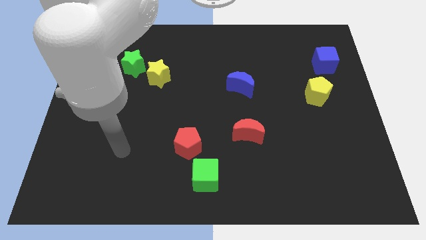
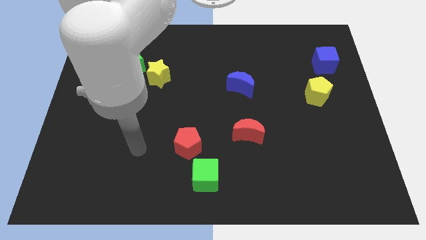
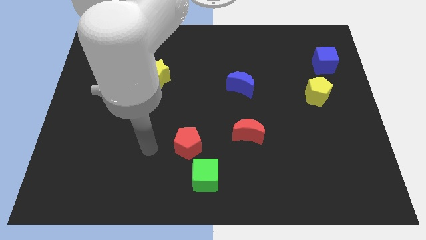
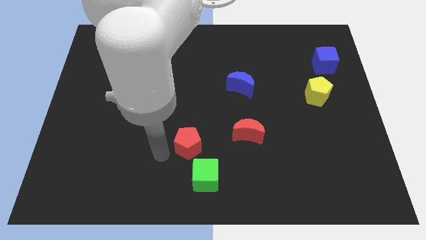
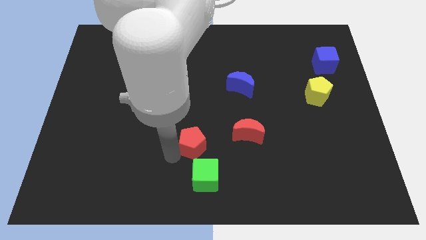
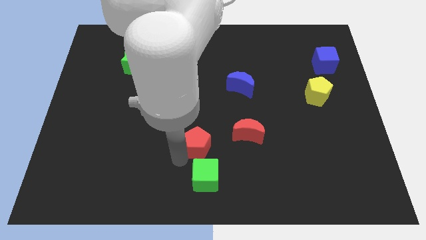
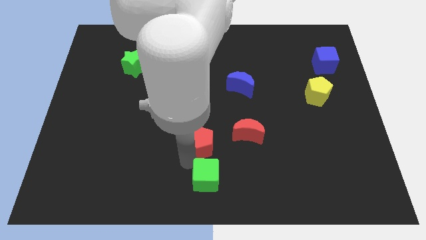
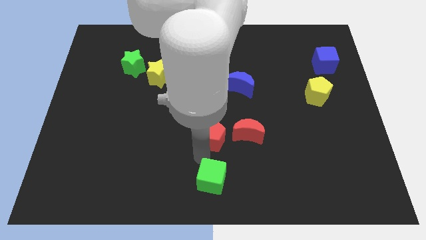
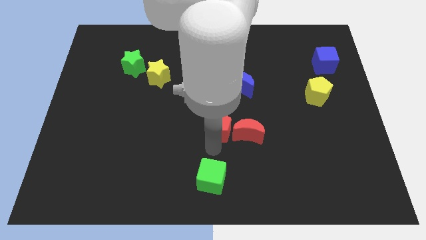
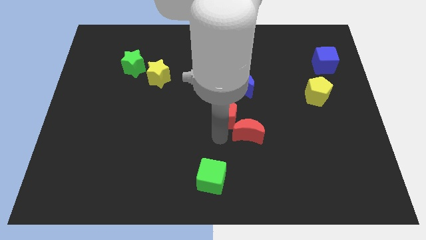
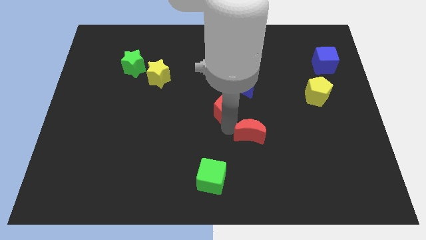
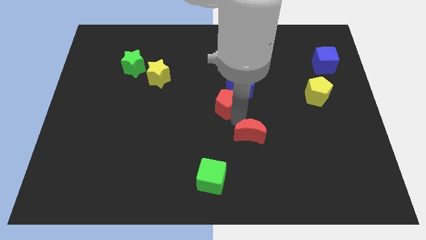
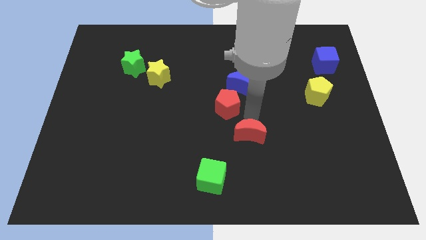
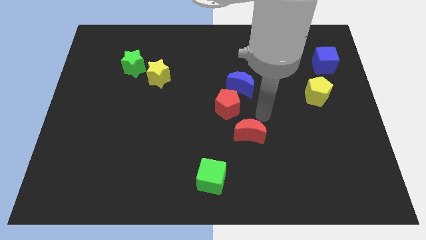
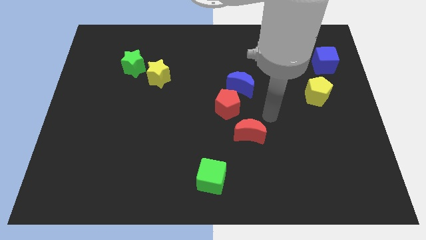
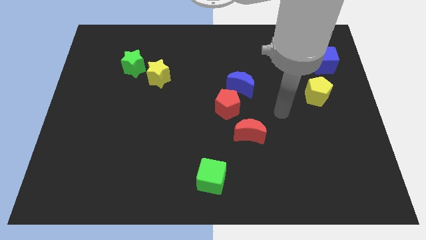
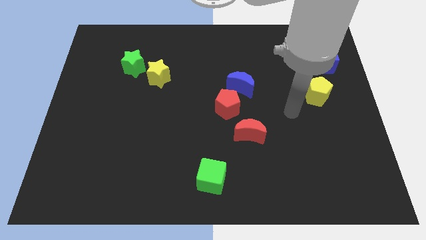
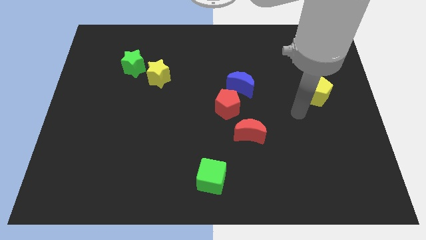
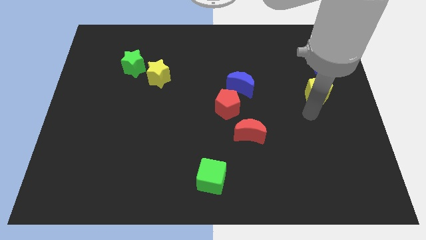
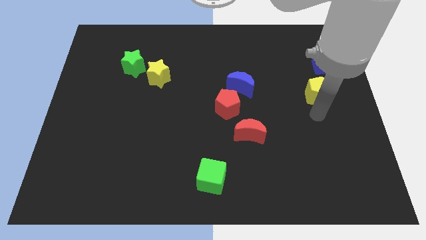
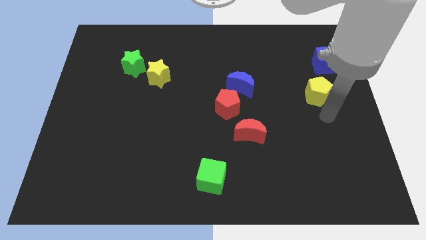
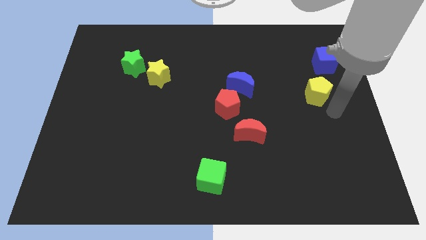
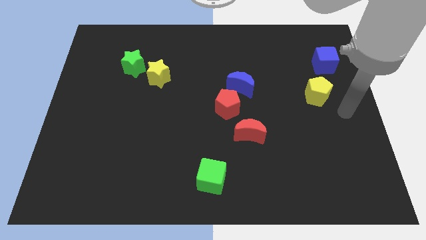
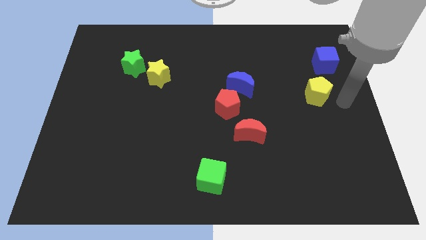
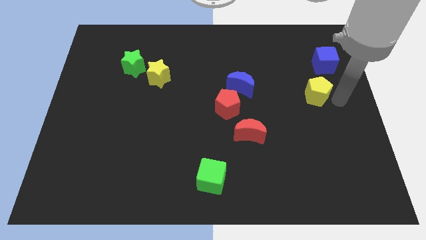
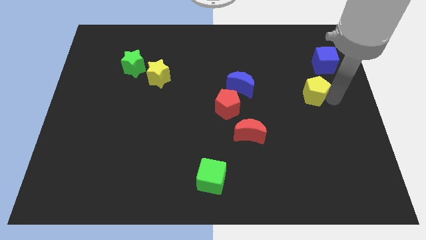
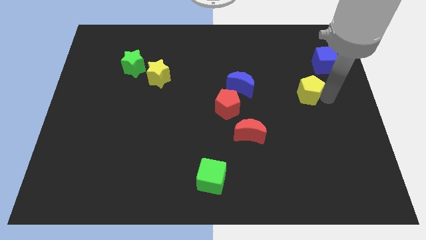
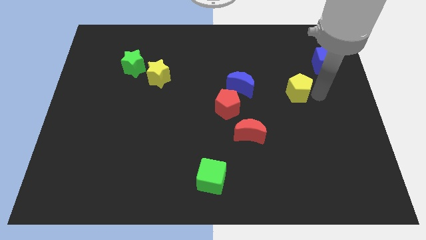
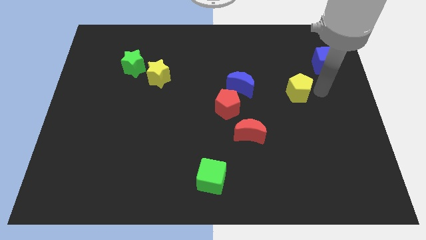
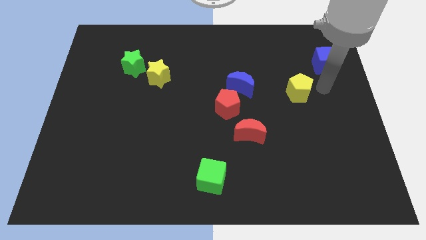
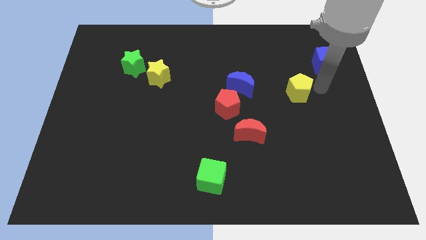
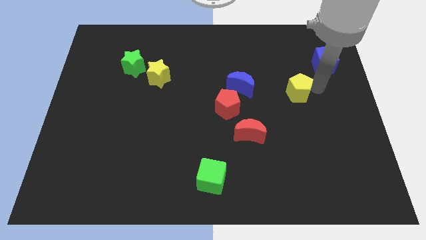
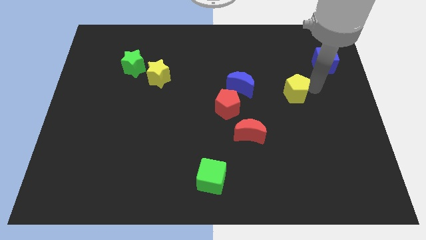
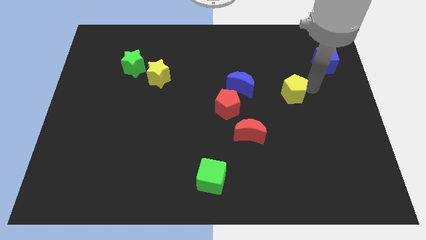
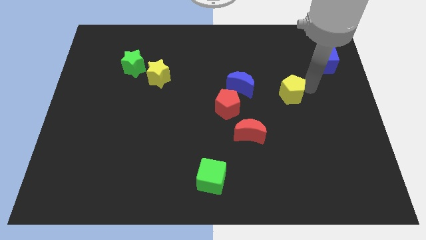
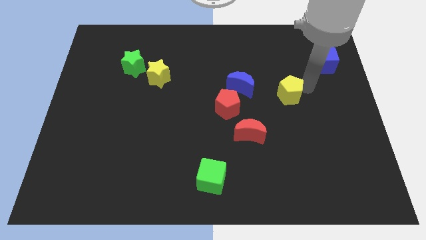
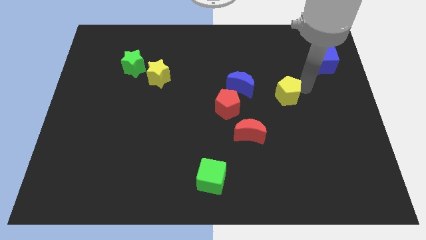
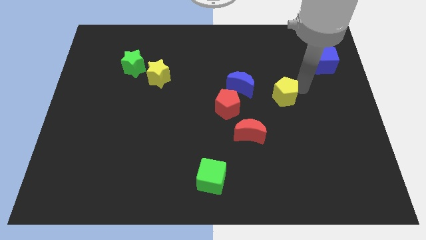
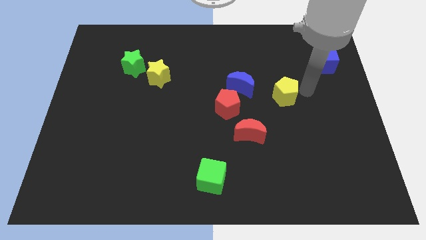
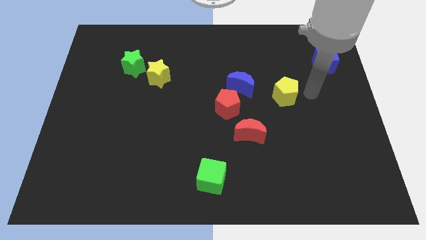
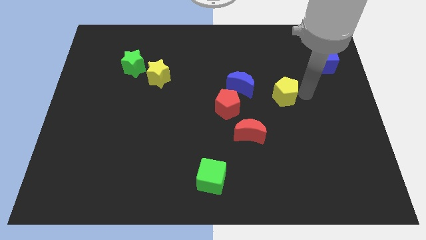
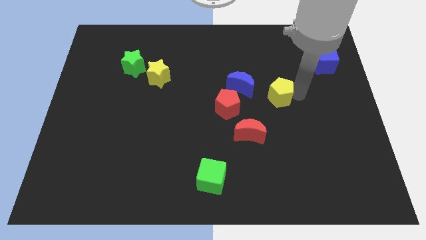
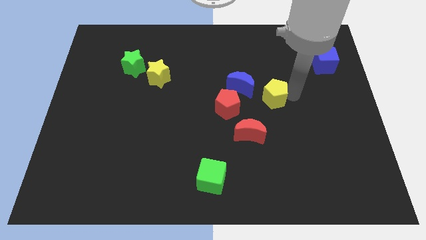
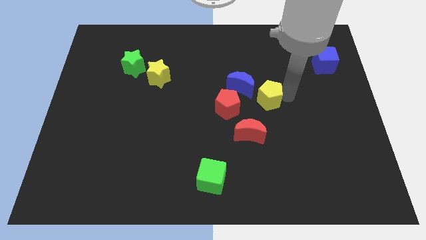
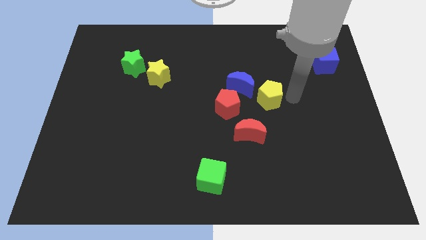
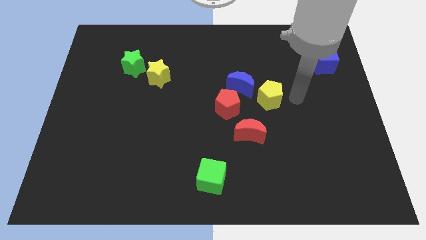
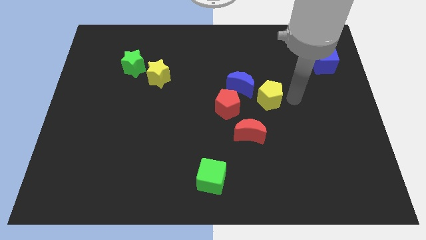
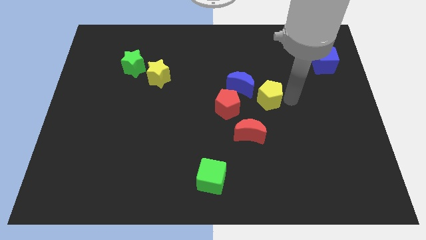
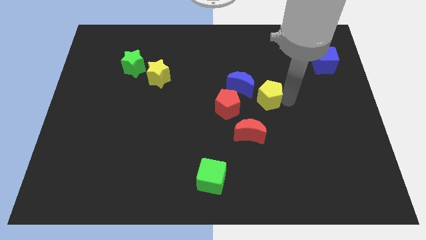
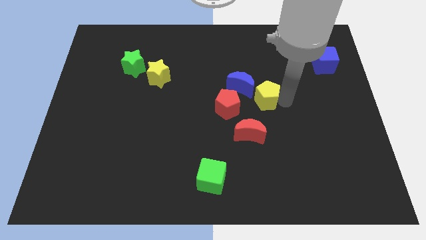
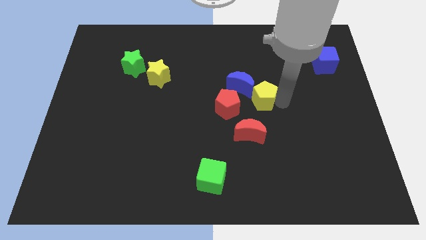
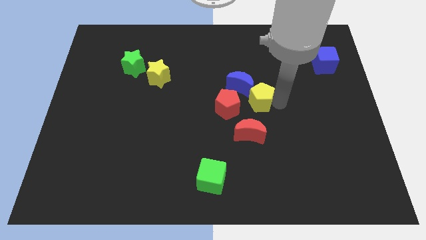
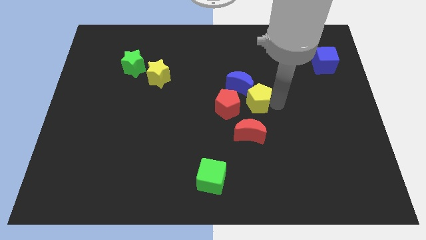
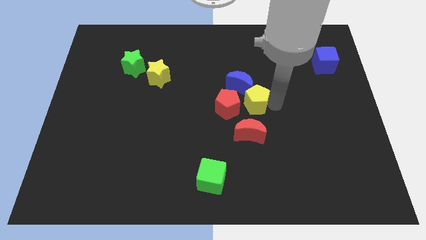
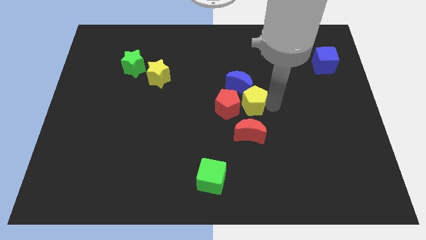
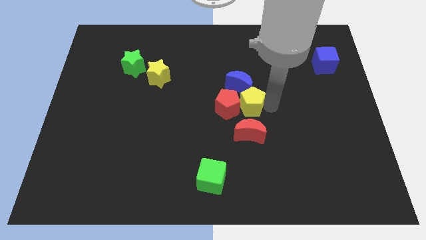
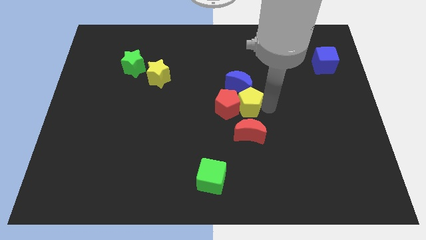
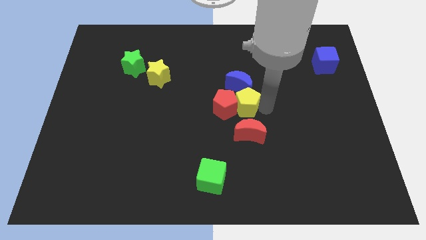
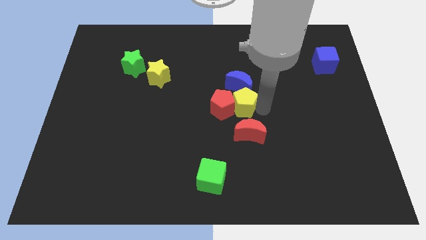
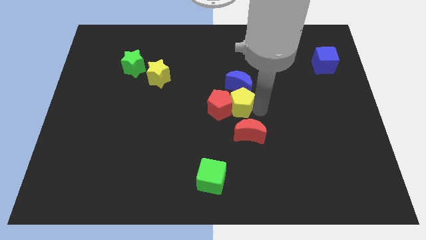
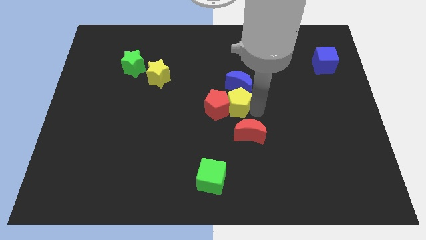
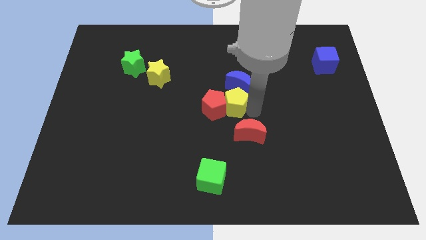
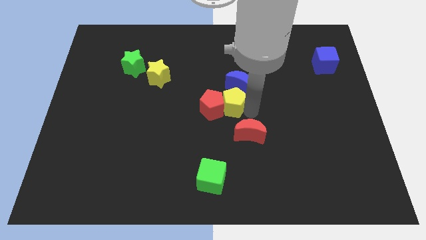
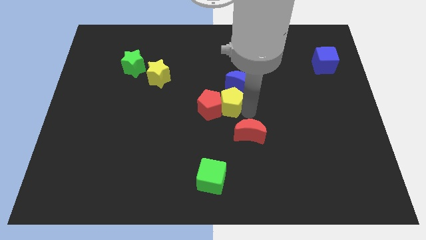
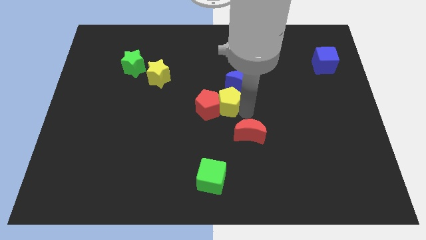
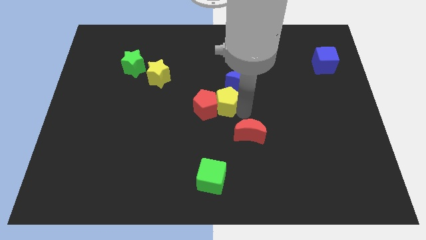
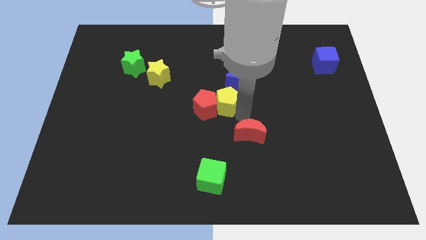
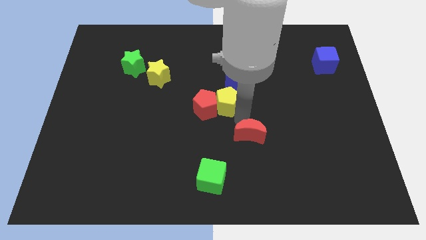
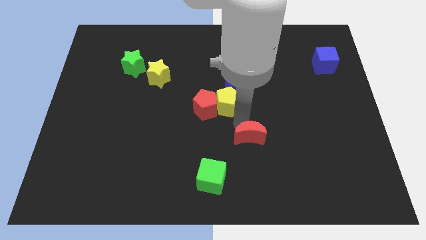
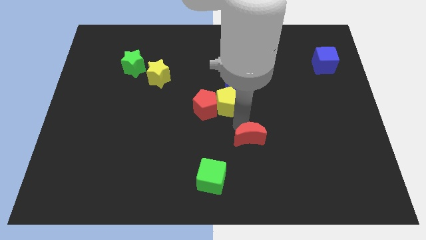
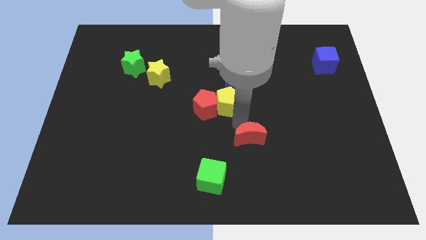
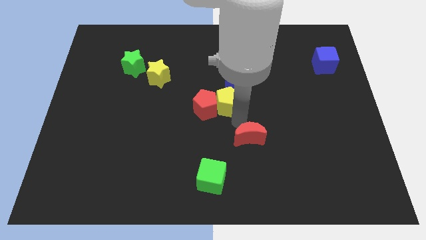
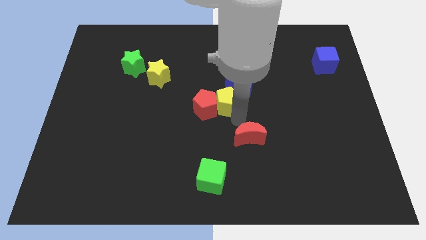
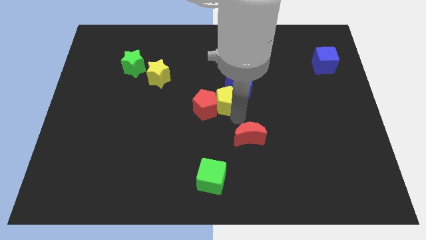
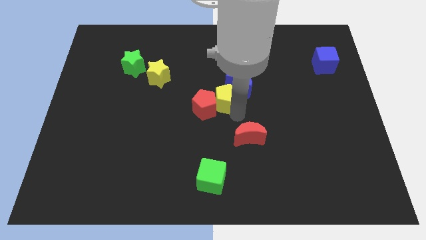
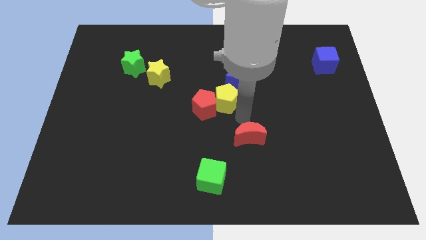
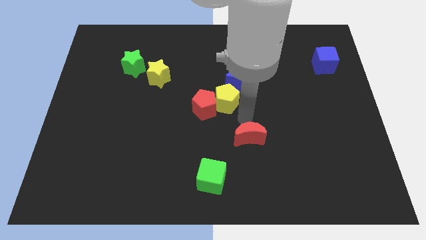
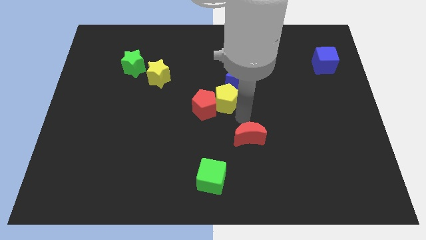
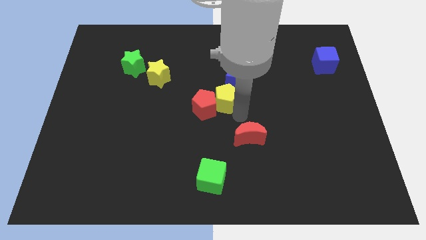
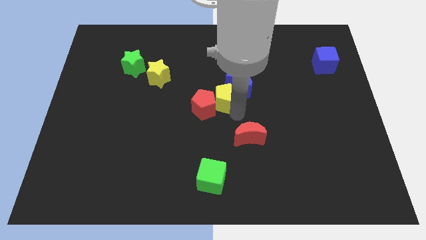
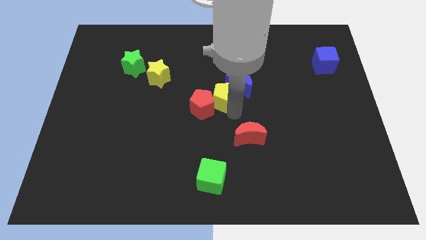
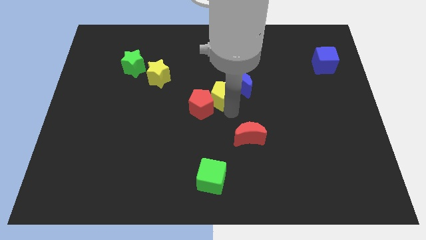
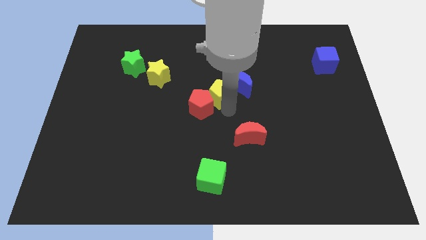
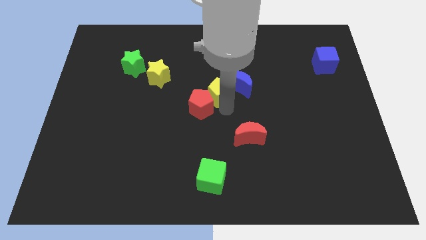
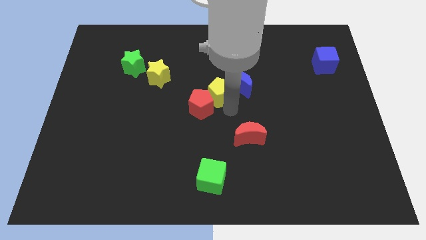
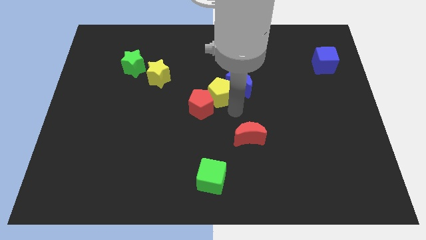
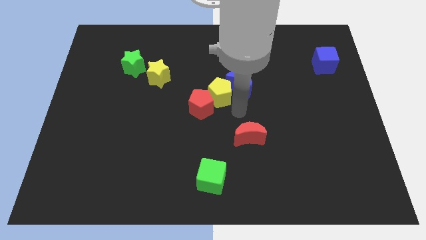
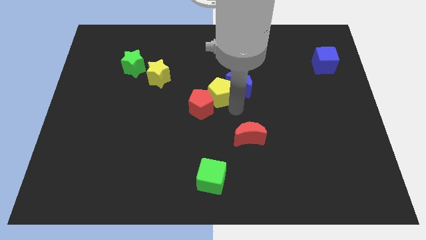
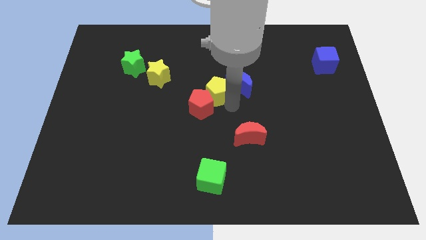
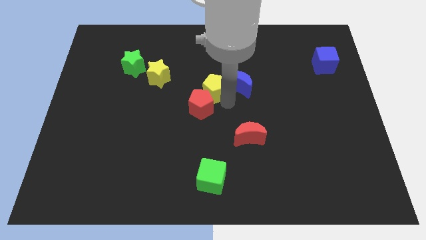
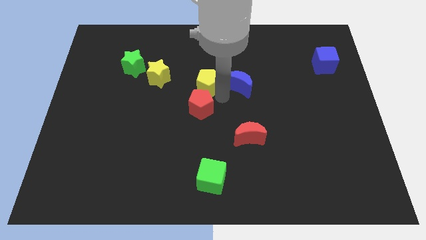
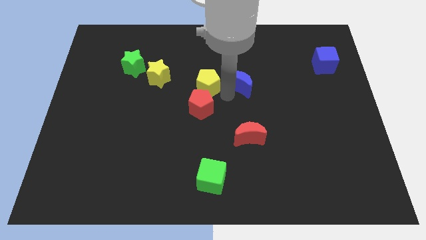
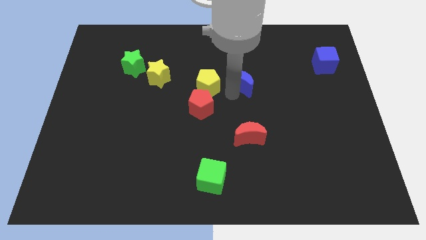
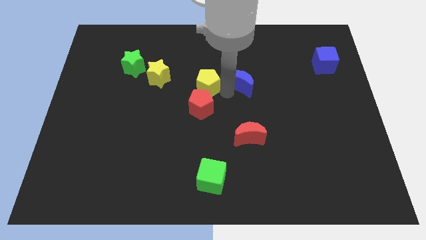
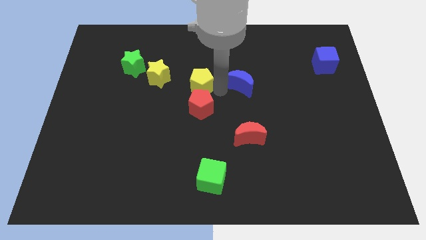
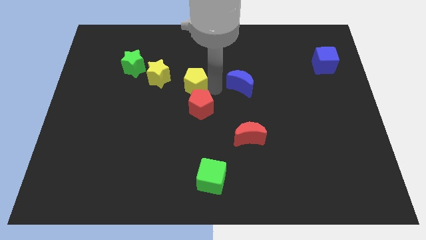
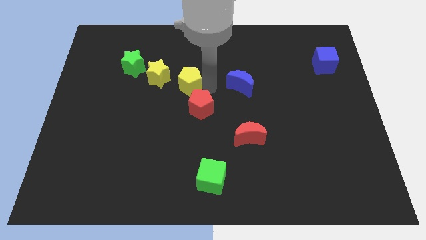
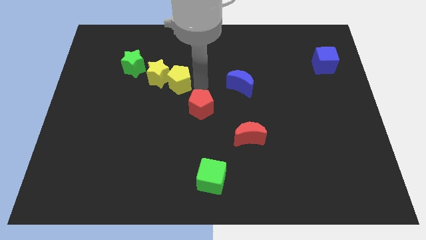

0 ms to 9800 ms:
put the yellow pentagon next to the yellow star
